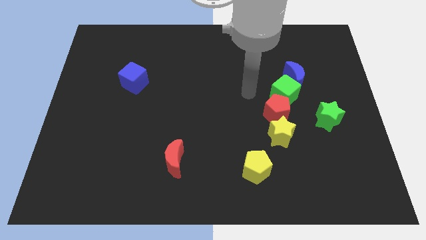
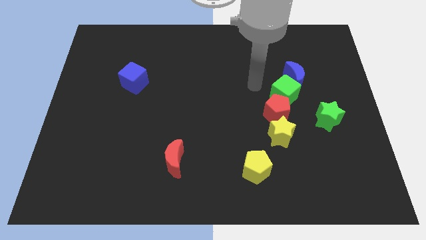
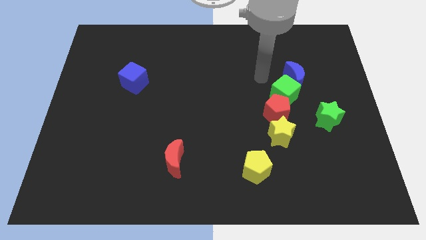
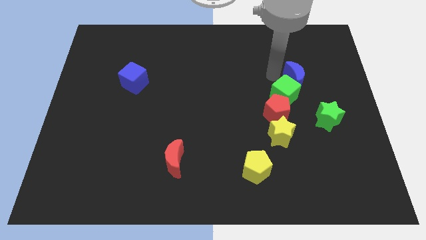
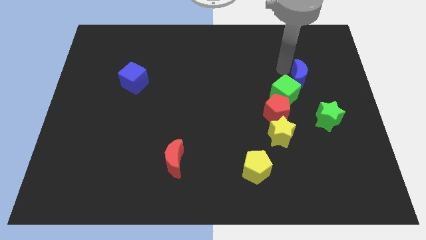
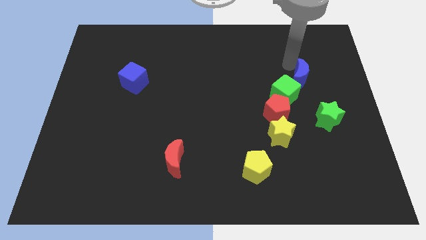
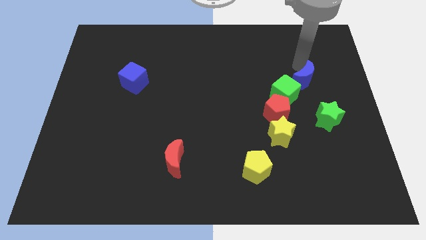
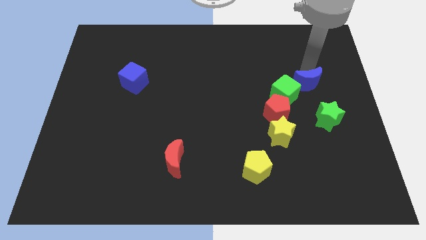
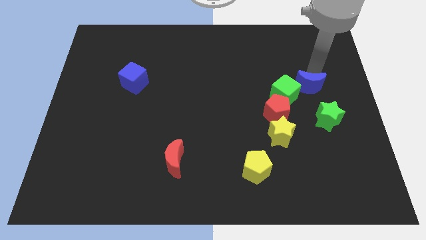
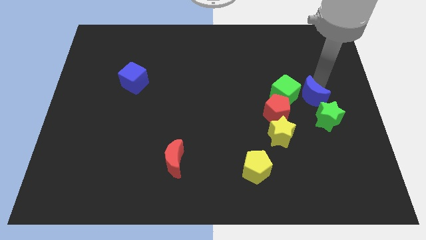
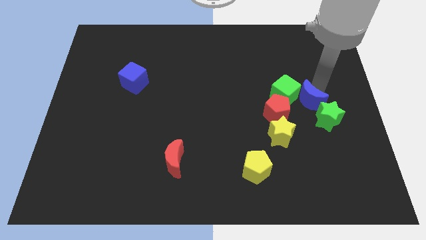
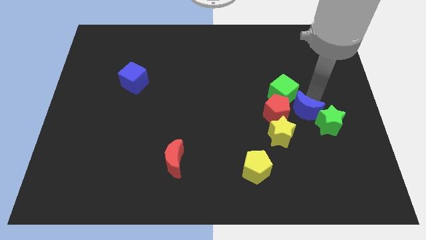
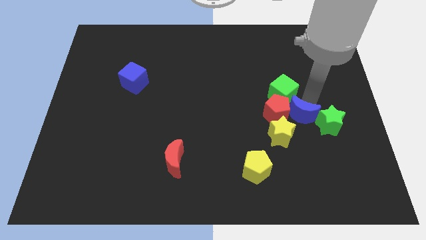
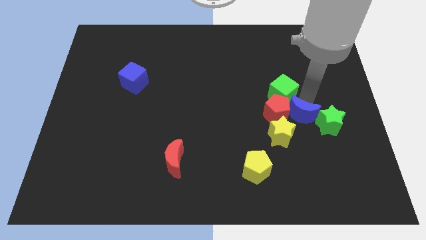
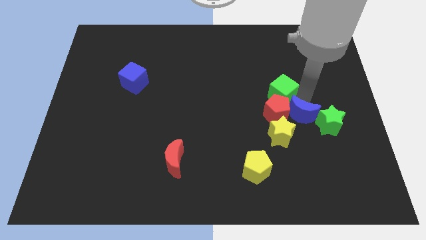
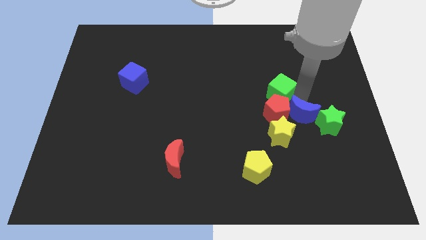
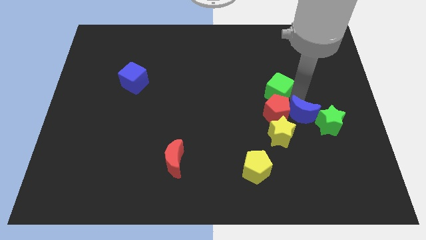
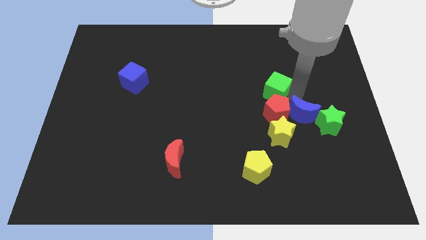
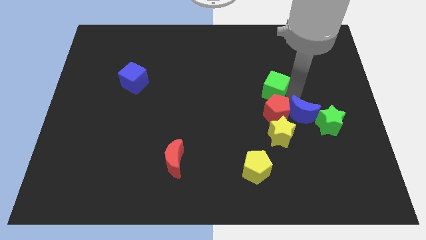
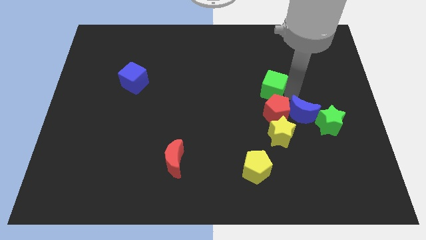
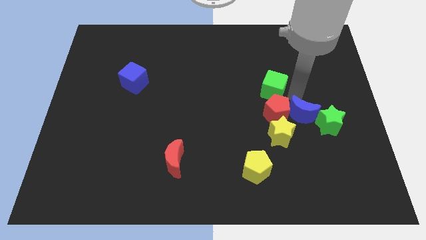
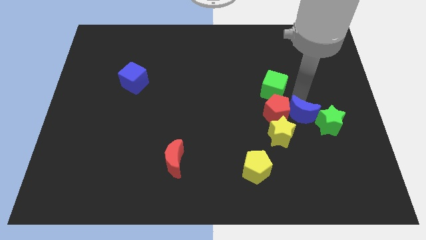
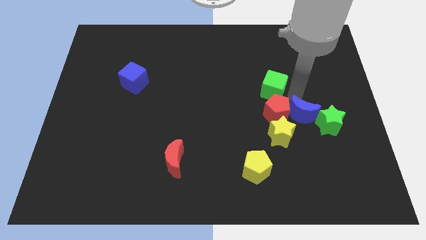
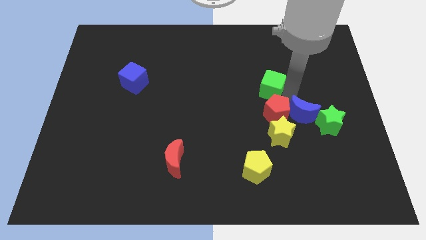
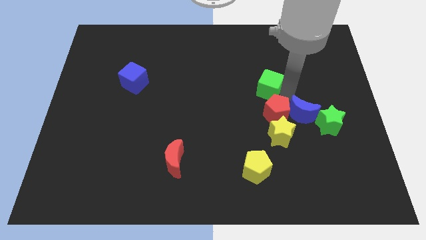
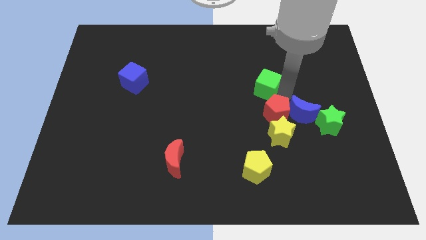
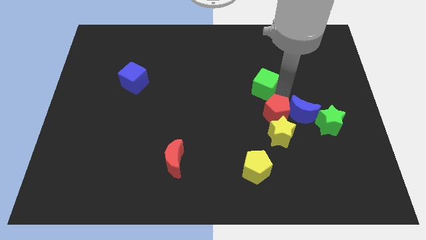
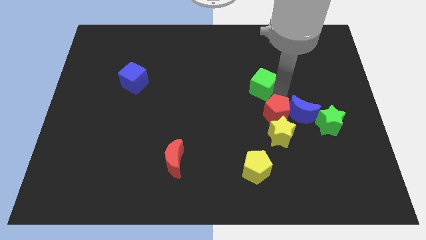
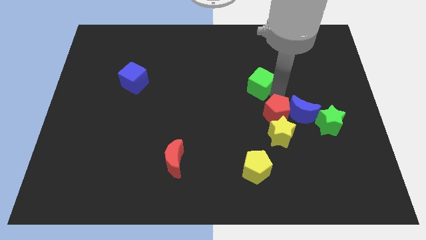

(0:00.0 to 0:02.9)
pull the green cube apart from the red pentagon and blue moon

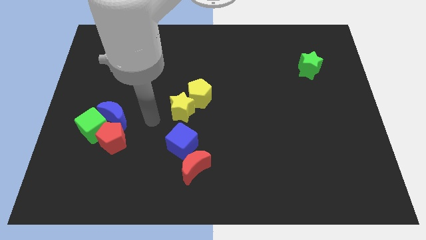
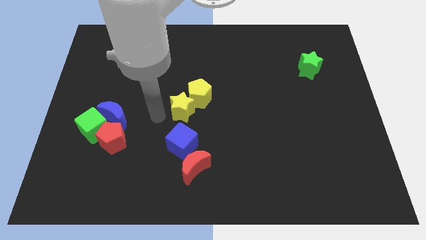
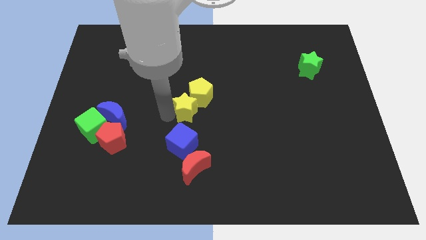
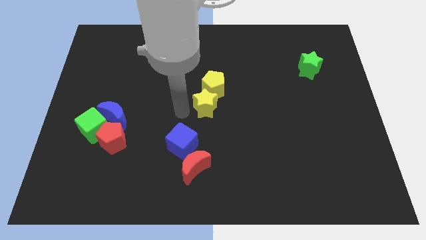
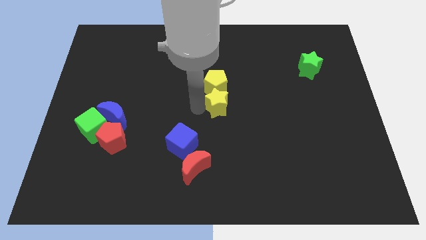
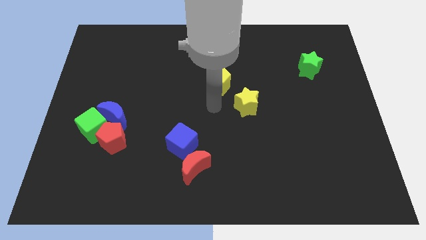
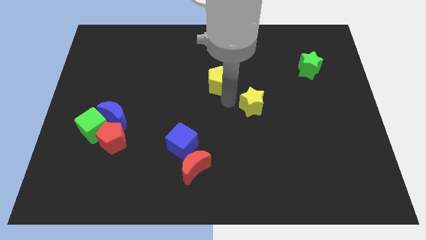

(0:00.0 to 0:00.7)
separate the yellow pentagon from the yellow star

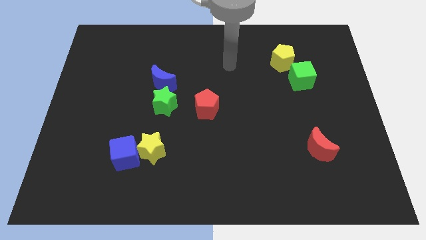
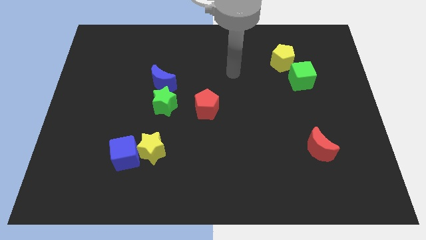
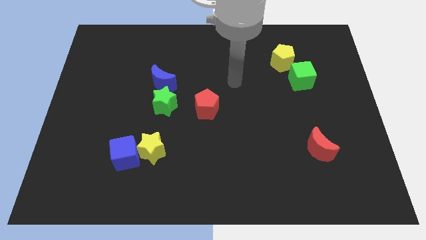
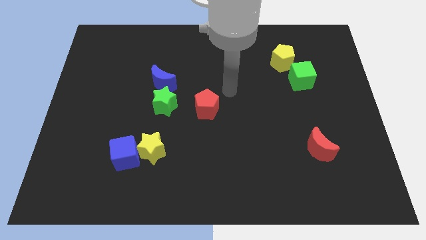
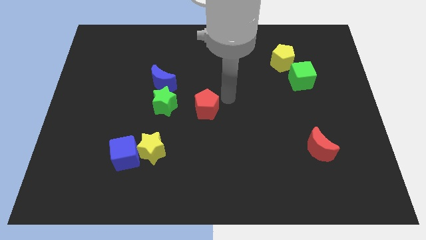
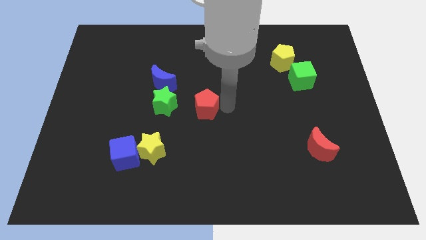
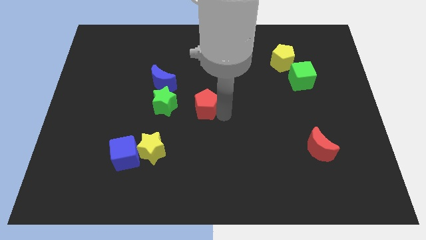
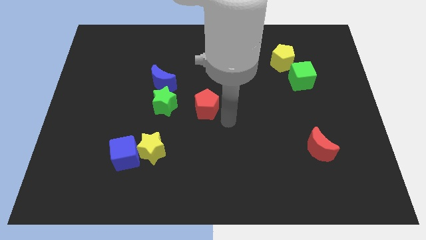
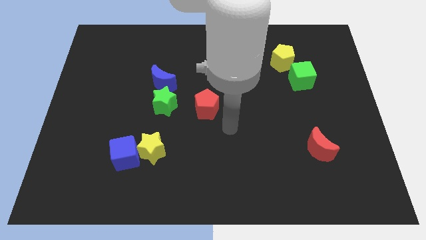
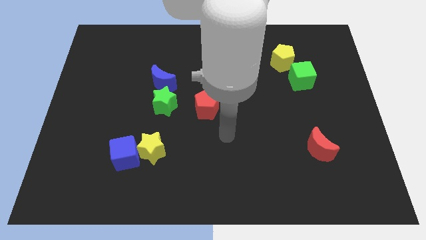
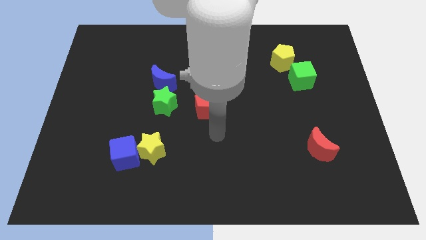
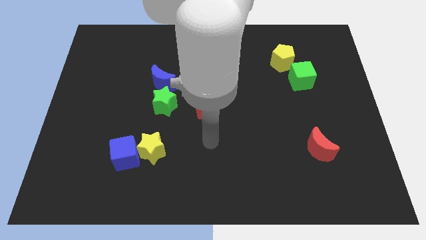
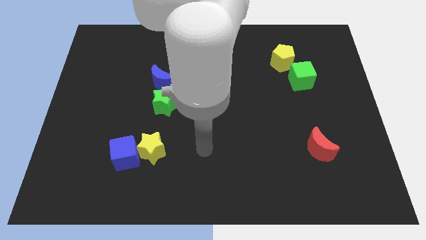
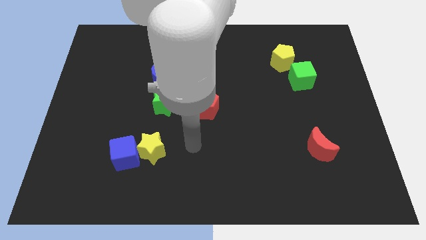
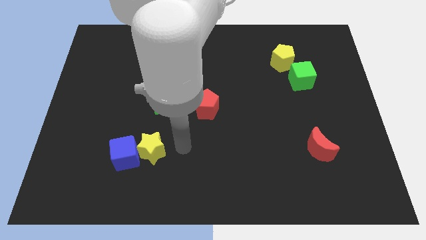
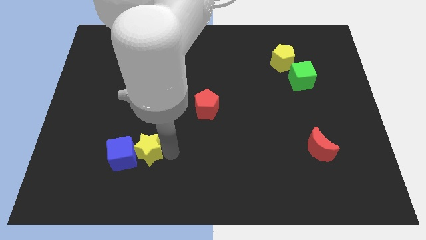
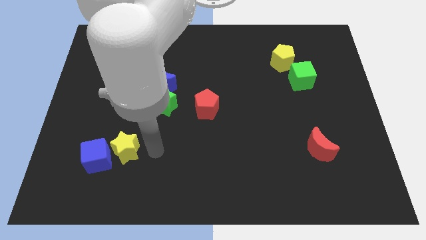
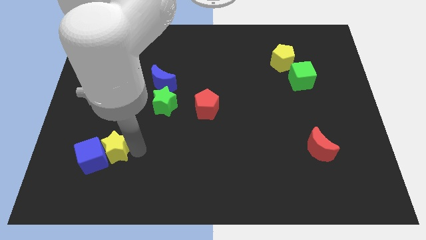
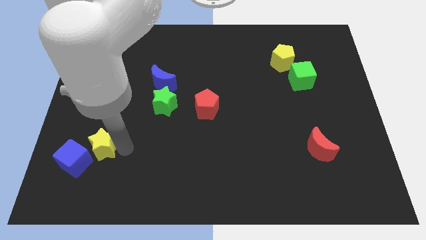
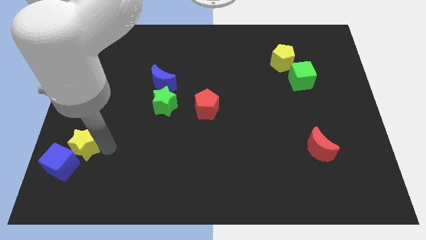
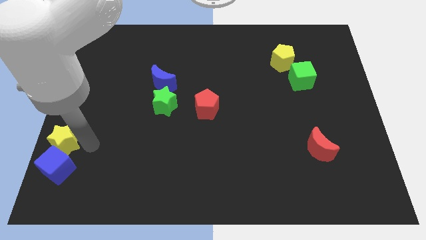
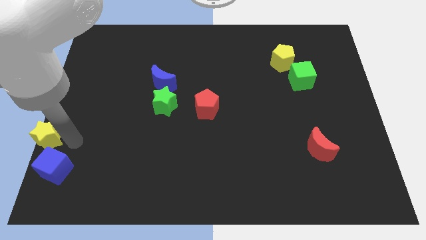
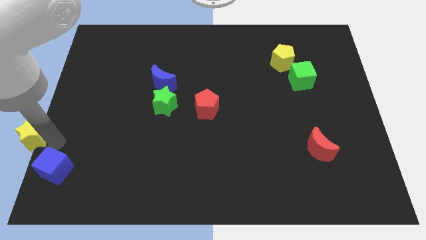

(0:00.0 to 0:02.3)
move the blue cube away from the yellow star

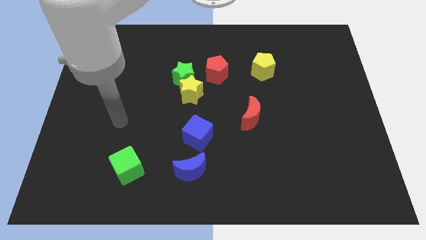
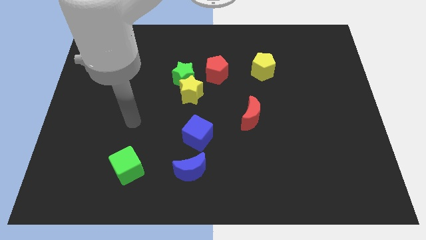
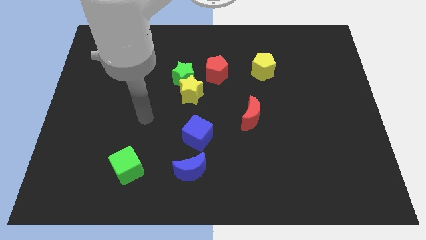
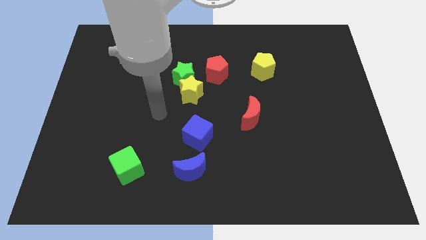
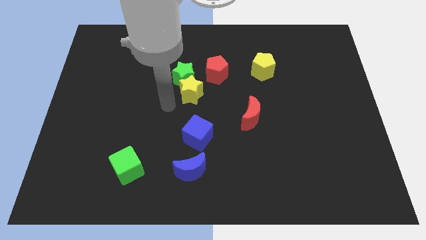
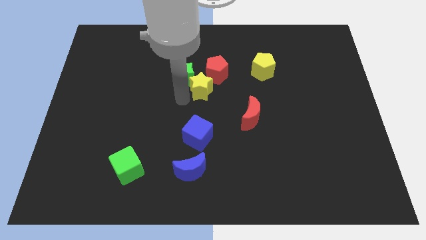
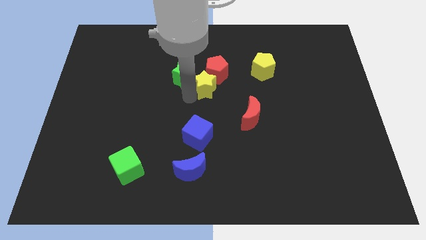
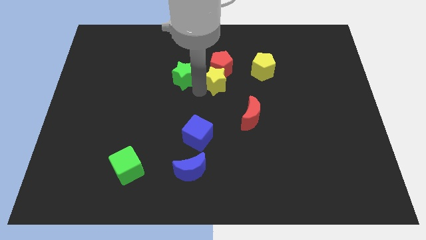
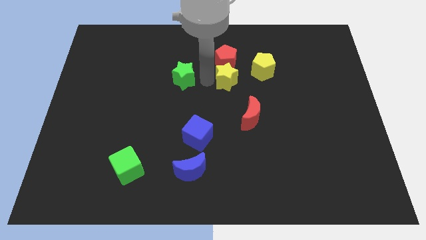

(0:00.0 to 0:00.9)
pull the green star apart from the yellow star and red pentagon

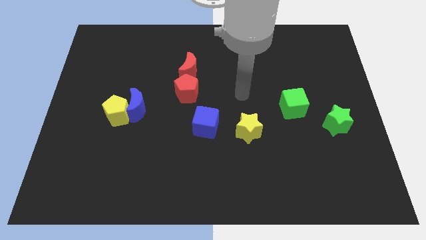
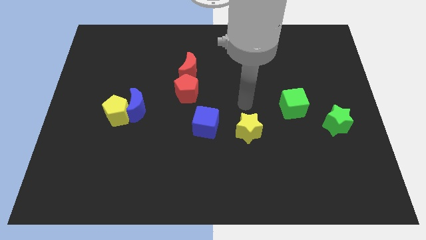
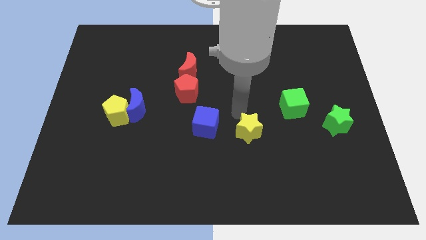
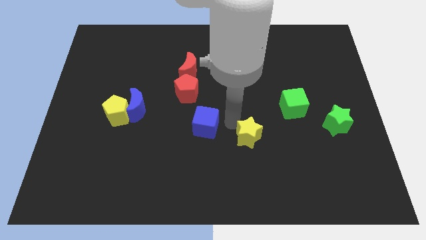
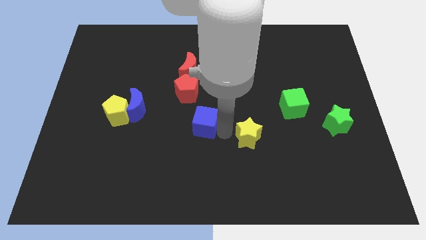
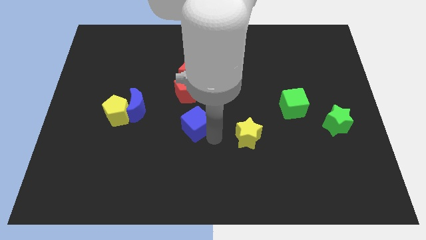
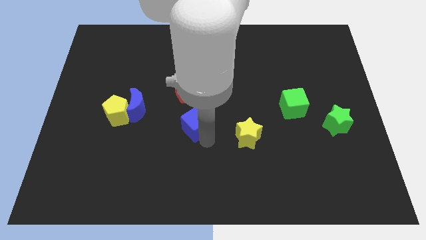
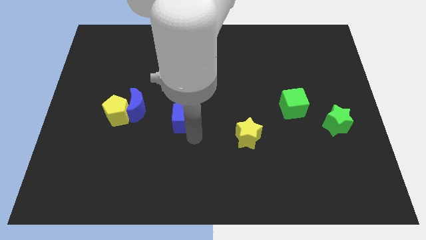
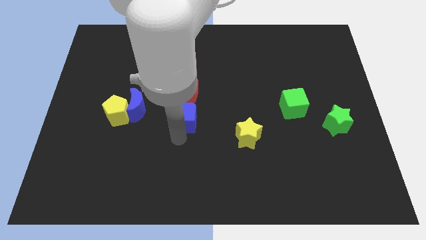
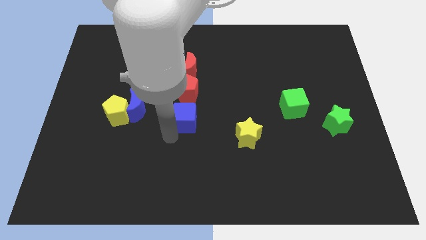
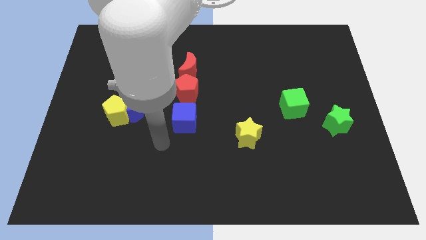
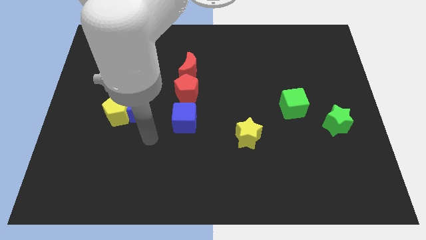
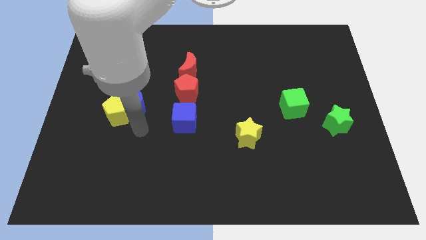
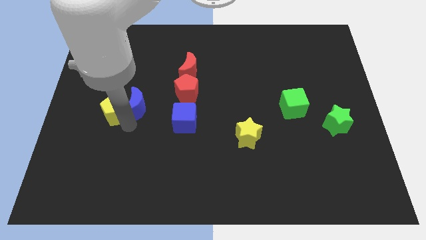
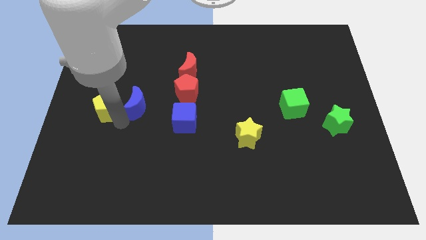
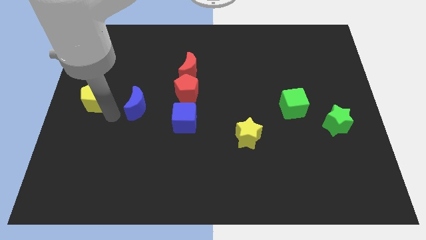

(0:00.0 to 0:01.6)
separate the blue moon from the yellow pentagon

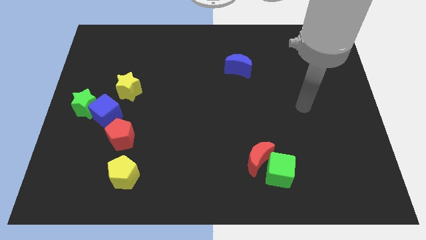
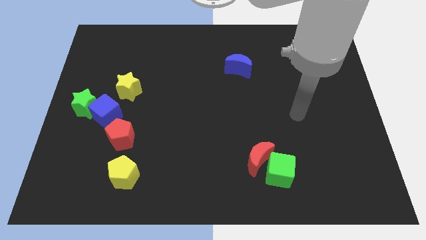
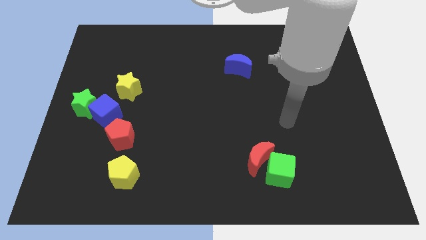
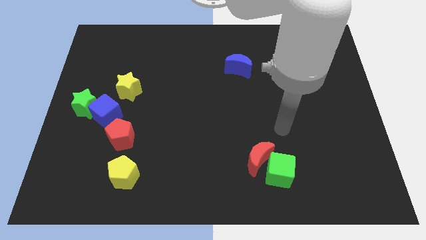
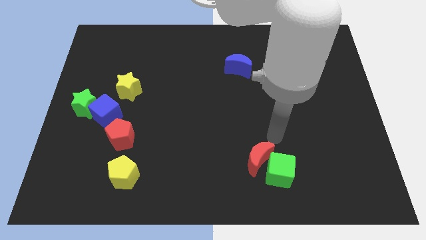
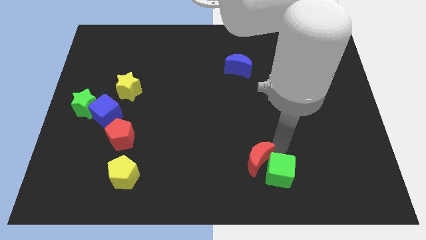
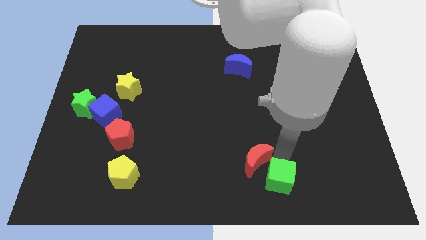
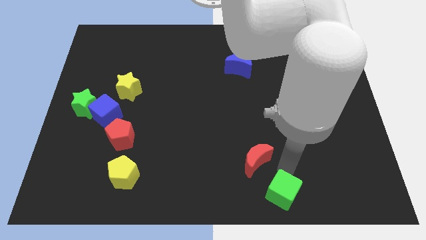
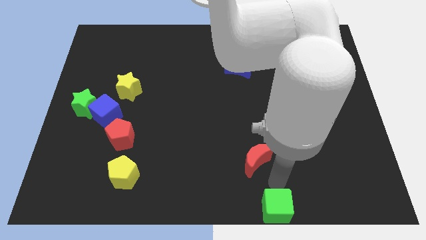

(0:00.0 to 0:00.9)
pull the red moon apart from the green cube
